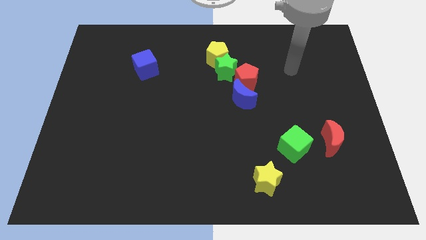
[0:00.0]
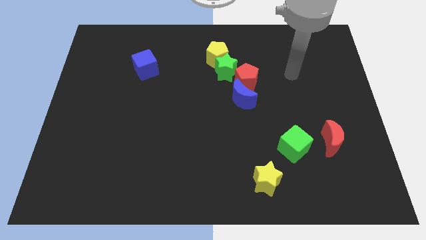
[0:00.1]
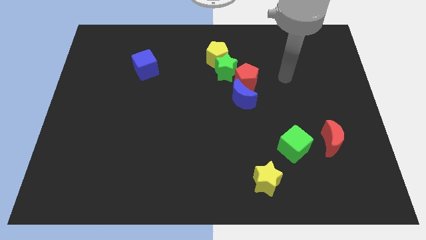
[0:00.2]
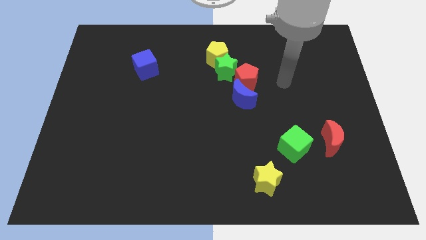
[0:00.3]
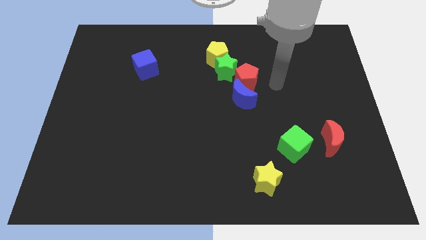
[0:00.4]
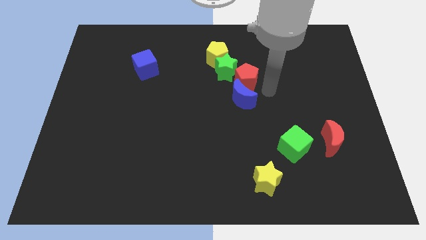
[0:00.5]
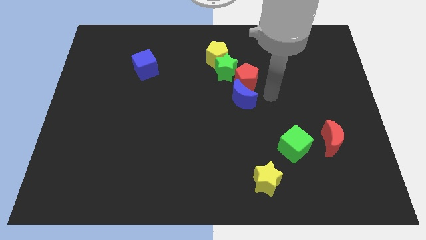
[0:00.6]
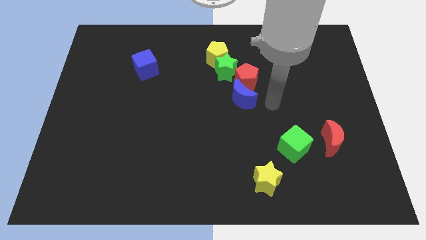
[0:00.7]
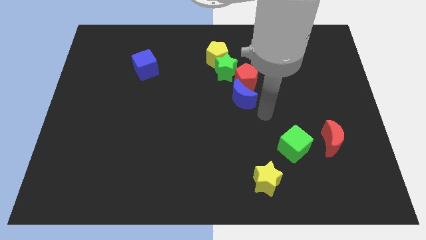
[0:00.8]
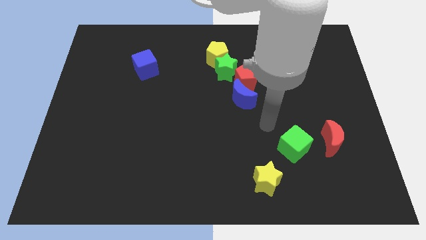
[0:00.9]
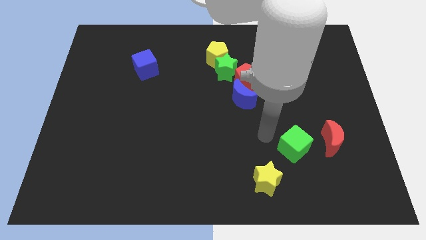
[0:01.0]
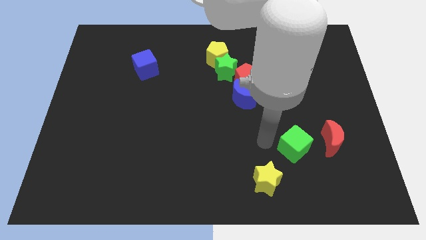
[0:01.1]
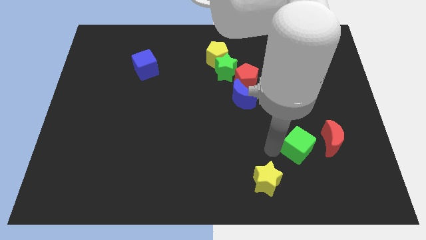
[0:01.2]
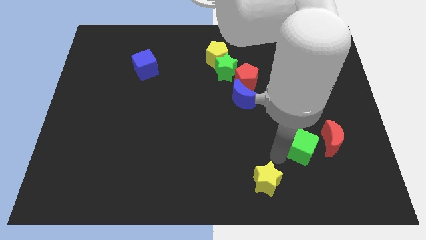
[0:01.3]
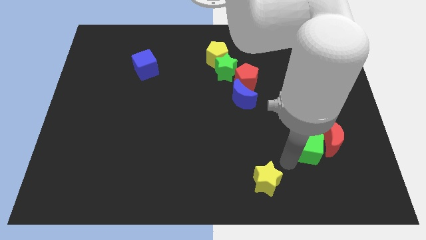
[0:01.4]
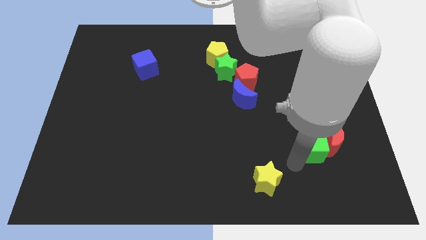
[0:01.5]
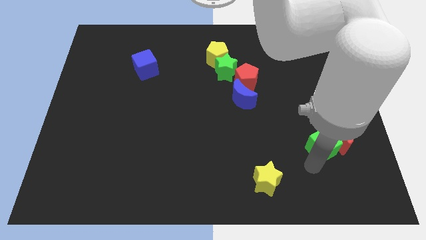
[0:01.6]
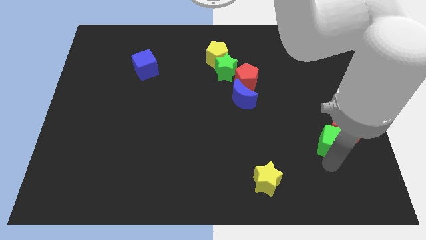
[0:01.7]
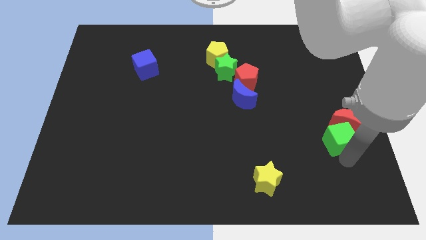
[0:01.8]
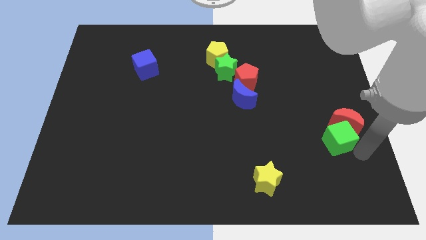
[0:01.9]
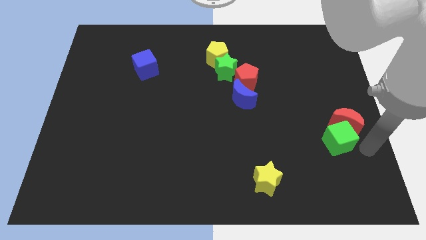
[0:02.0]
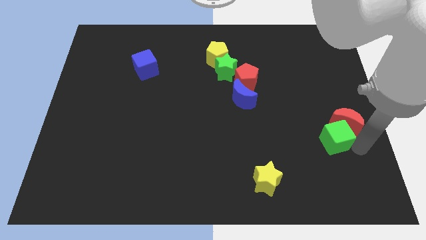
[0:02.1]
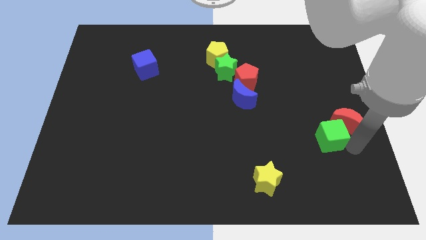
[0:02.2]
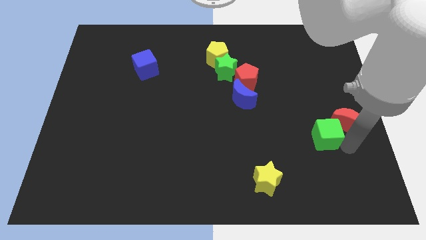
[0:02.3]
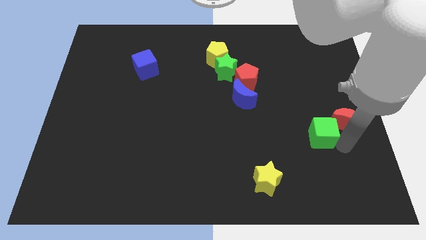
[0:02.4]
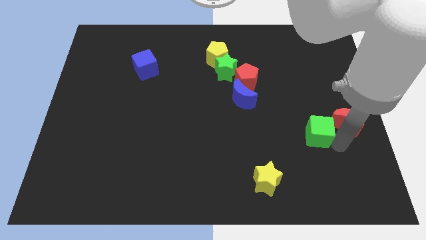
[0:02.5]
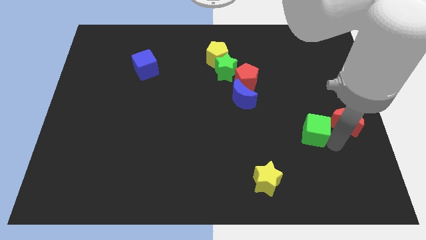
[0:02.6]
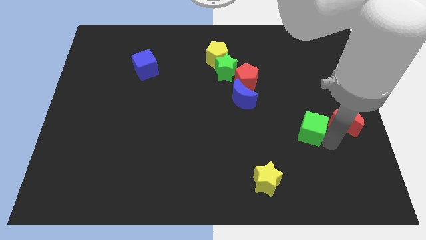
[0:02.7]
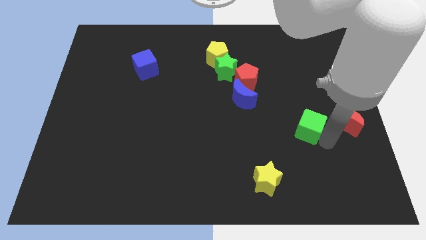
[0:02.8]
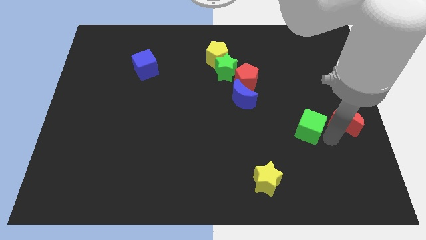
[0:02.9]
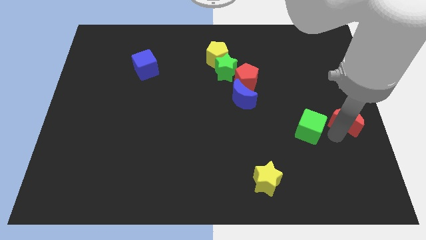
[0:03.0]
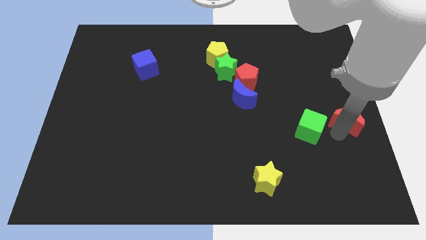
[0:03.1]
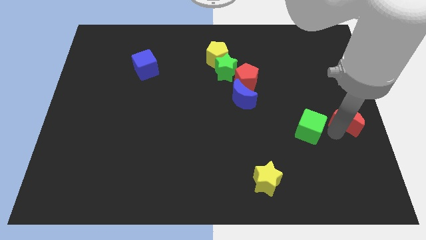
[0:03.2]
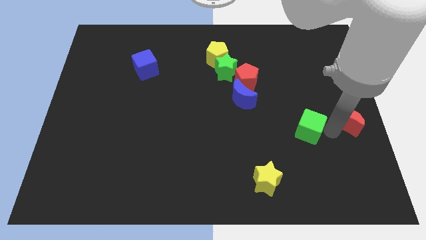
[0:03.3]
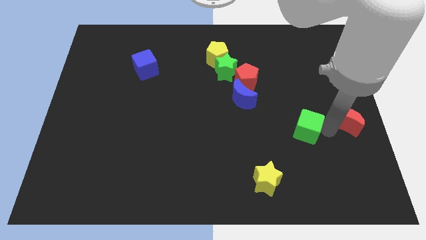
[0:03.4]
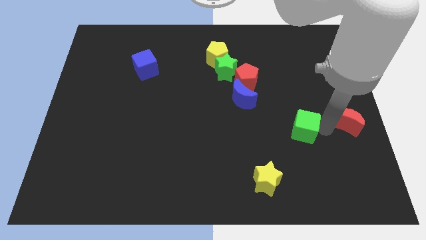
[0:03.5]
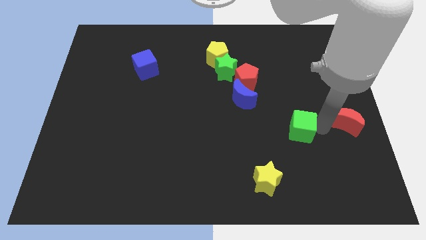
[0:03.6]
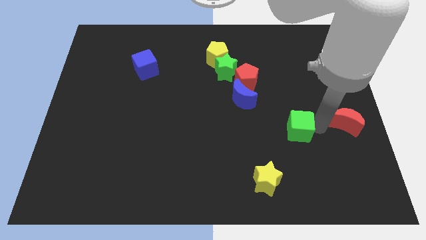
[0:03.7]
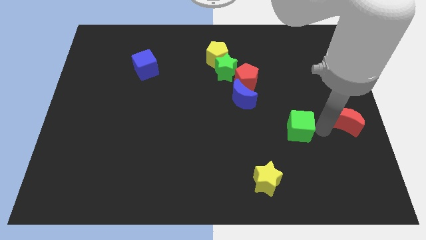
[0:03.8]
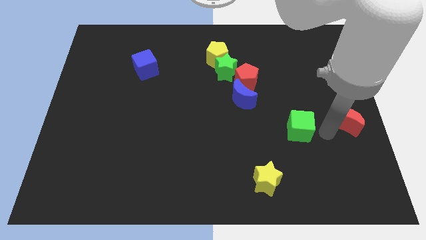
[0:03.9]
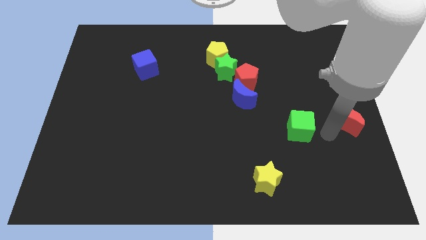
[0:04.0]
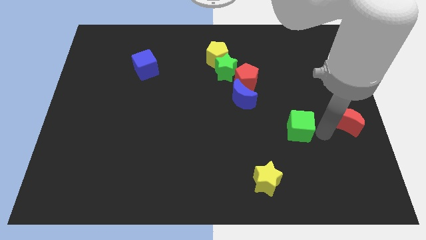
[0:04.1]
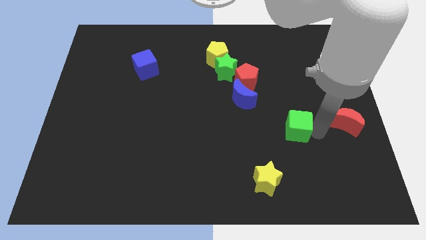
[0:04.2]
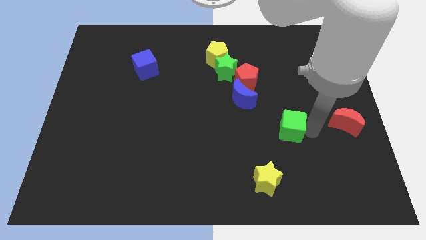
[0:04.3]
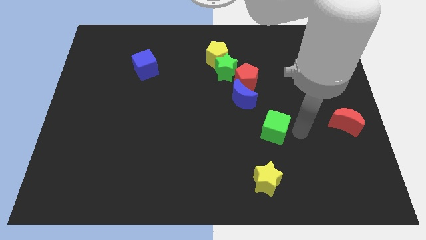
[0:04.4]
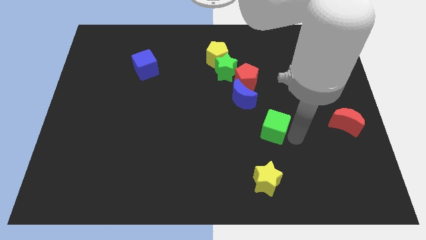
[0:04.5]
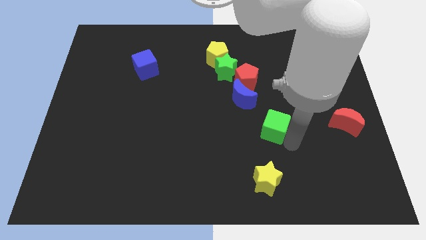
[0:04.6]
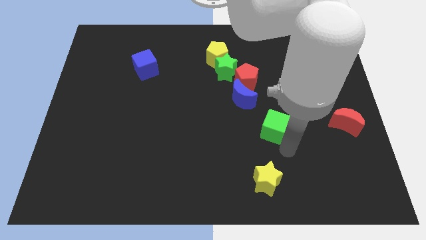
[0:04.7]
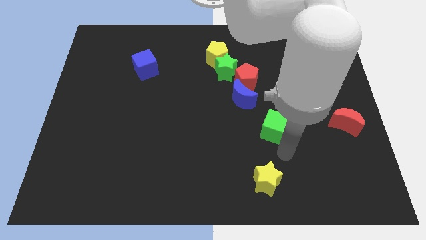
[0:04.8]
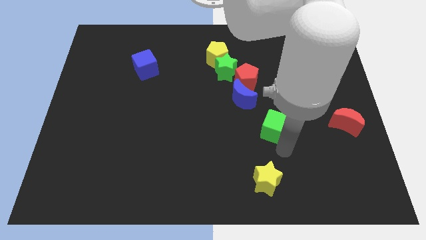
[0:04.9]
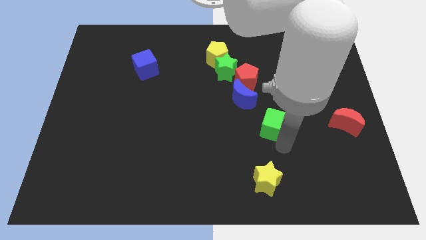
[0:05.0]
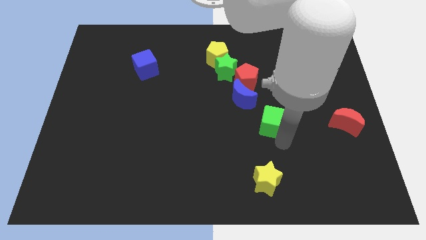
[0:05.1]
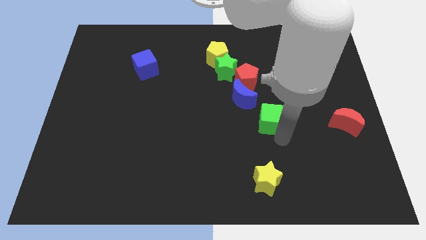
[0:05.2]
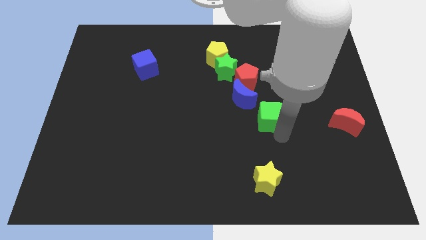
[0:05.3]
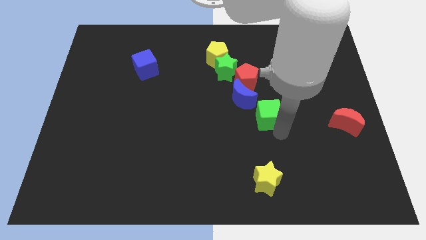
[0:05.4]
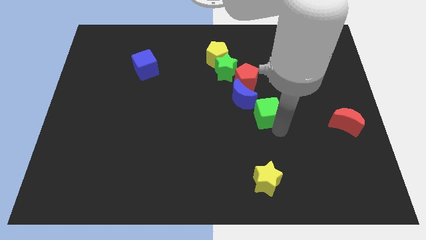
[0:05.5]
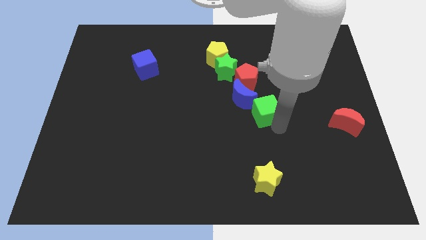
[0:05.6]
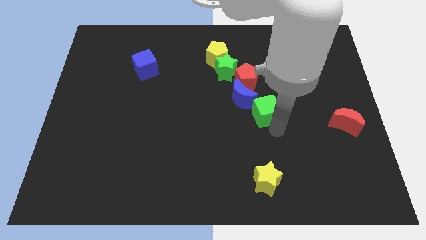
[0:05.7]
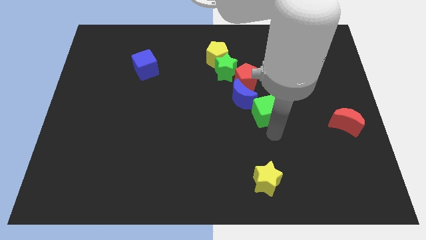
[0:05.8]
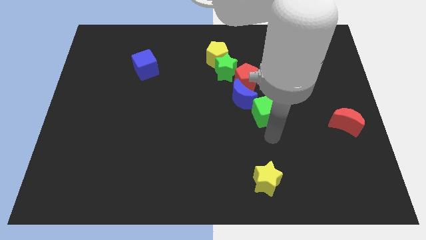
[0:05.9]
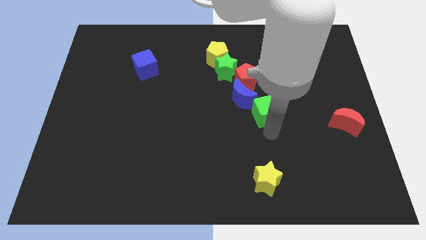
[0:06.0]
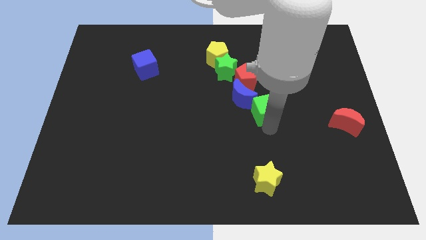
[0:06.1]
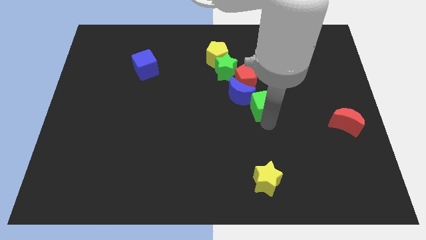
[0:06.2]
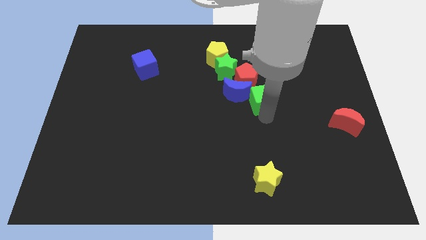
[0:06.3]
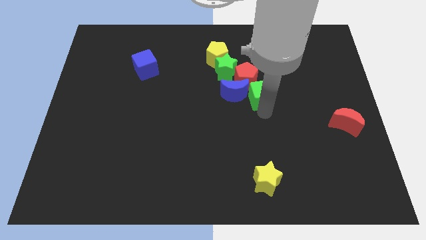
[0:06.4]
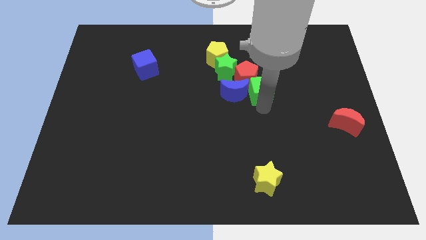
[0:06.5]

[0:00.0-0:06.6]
push the green cube close to the red pentagon

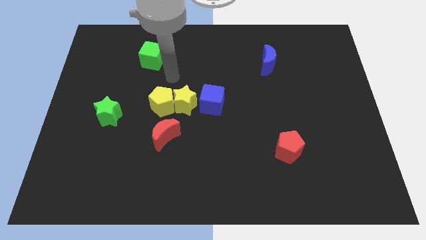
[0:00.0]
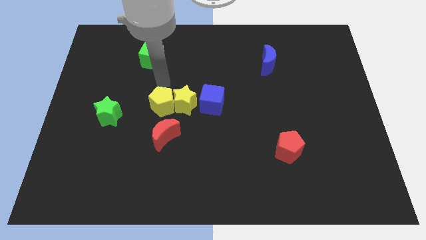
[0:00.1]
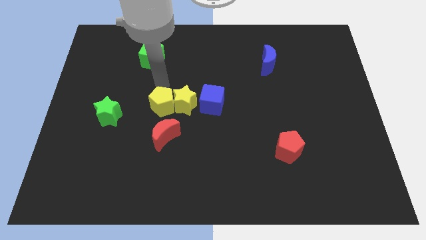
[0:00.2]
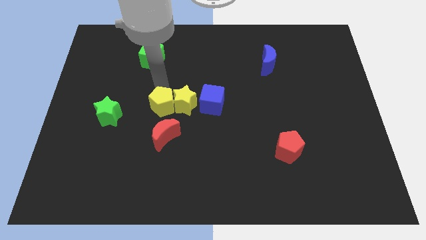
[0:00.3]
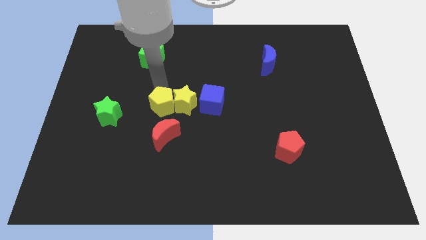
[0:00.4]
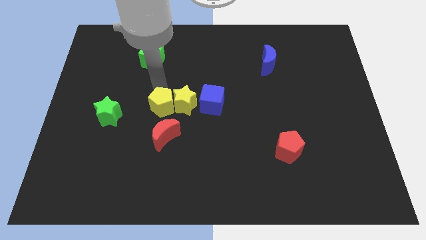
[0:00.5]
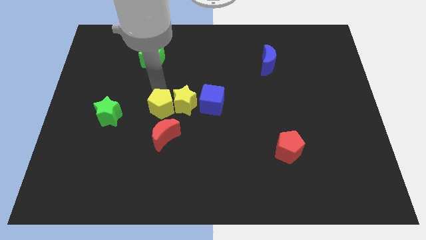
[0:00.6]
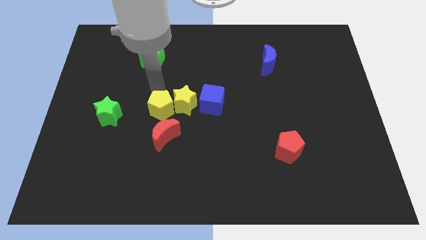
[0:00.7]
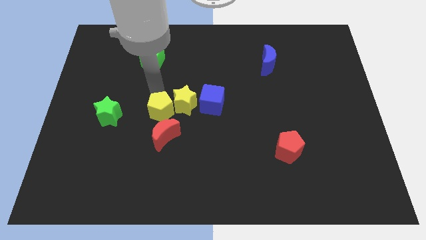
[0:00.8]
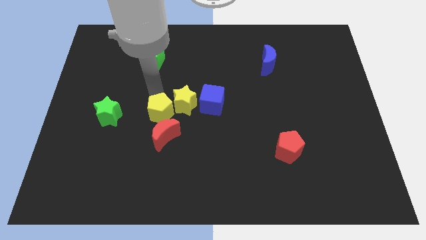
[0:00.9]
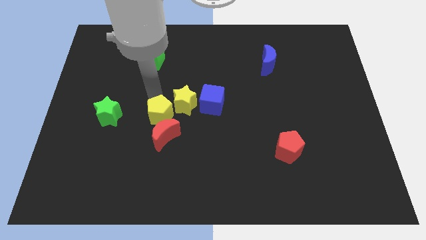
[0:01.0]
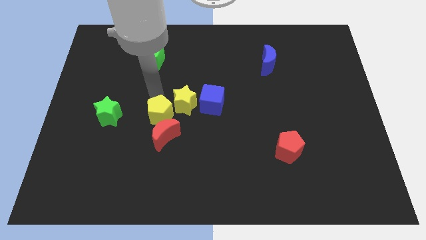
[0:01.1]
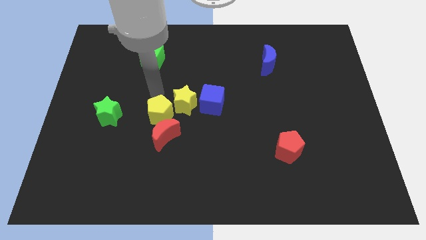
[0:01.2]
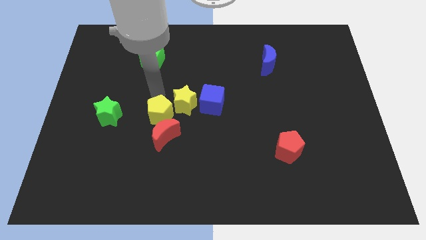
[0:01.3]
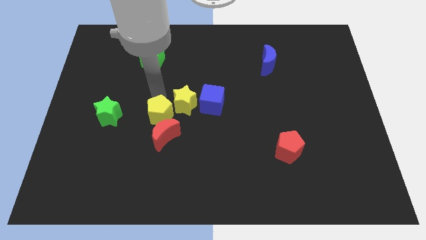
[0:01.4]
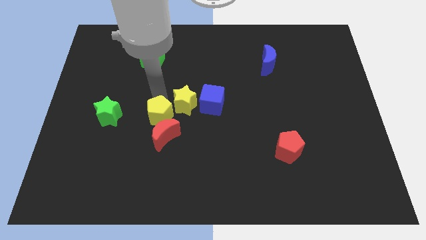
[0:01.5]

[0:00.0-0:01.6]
move the yellow pentagon to the red moon
